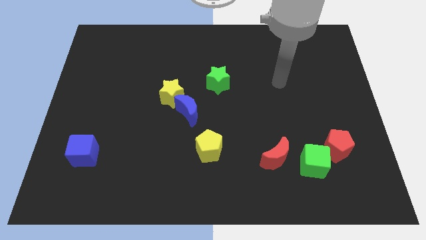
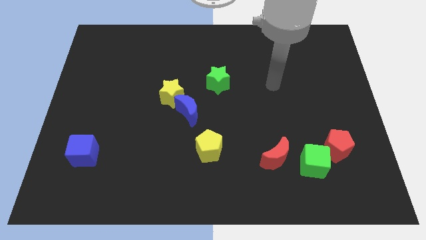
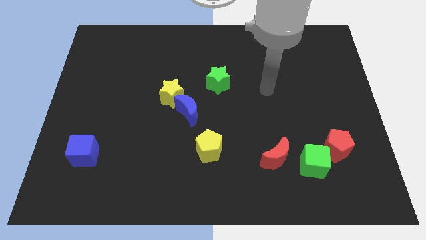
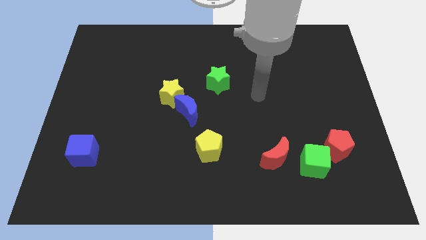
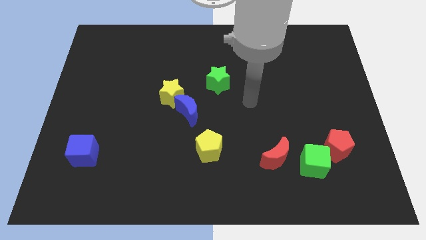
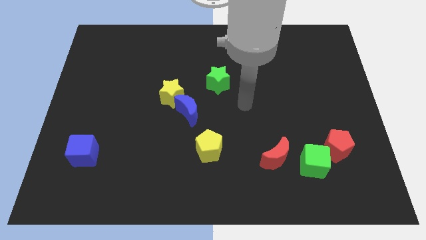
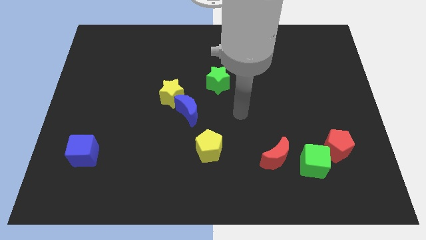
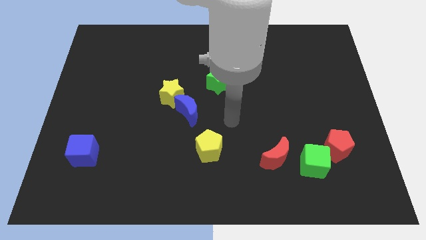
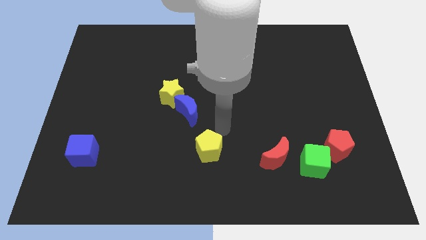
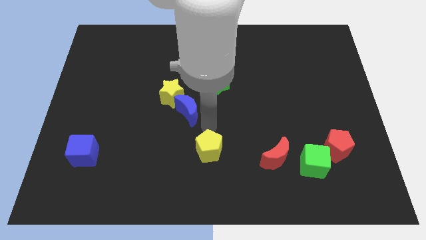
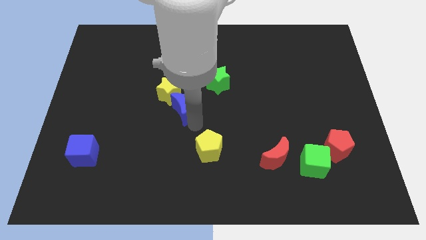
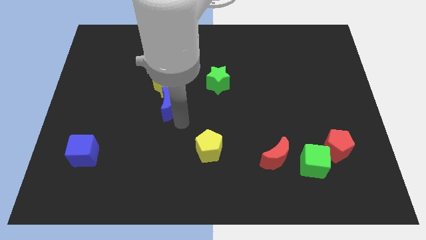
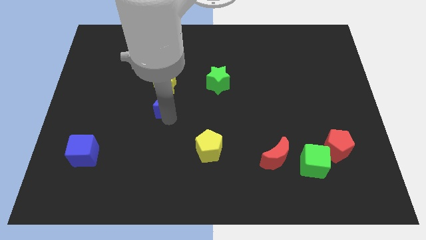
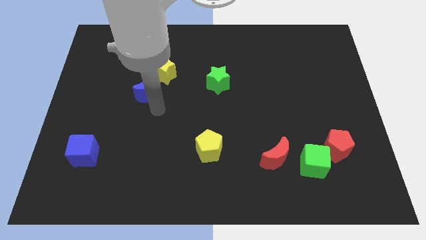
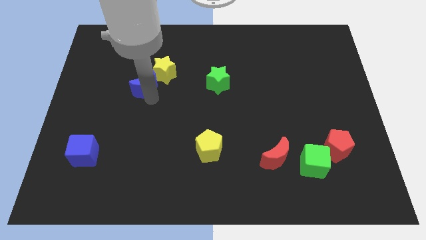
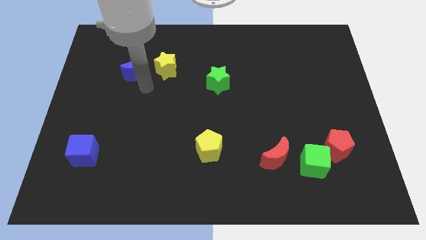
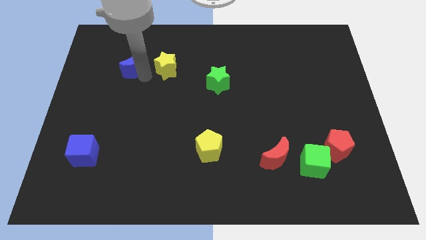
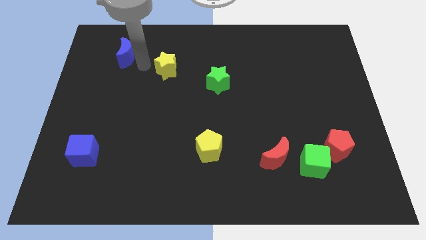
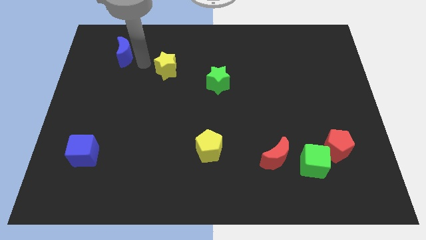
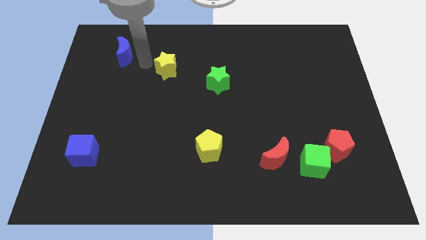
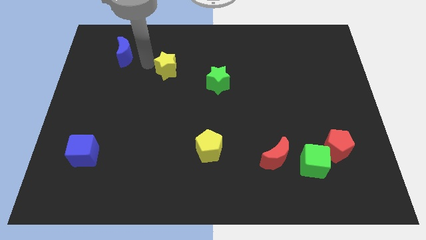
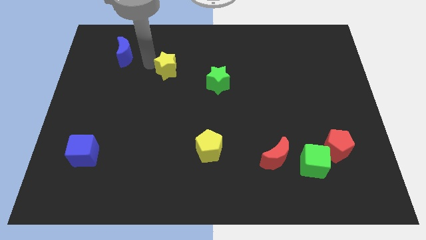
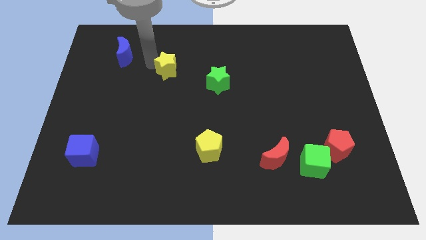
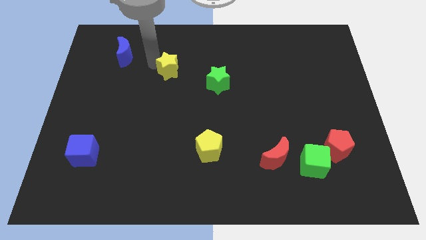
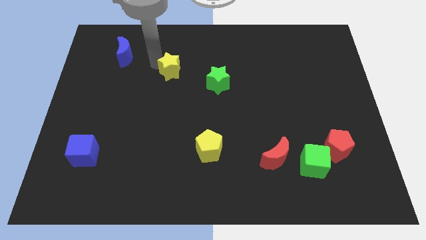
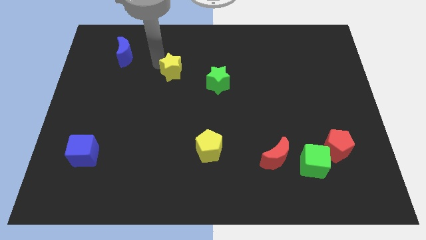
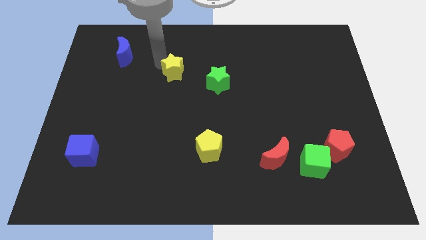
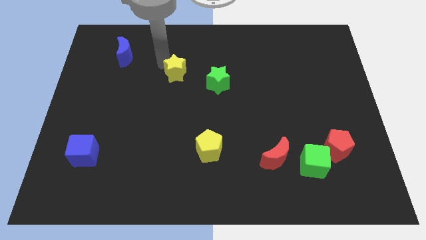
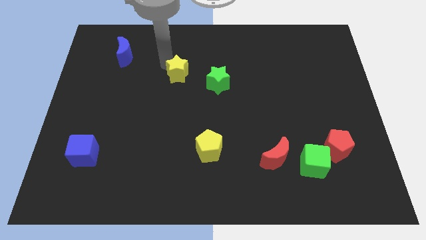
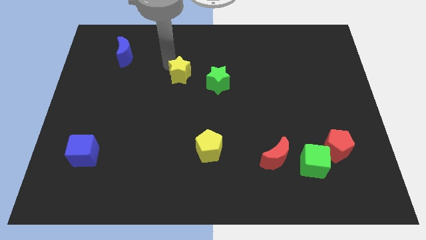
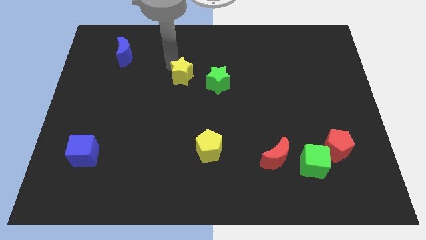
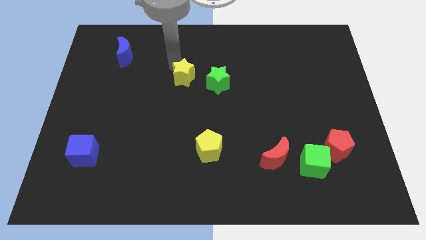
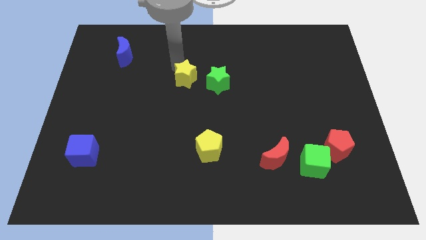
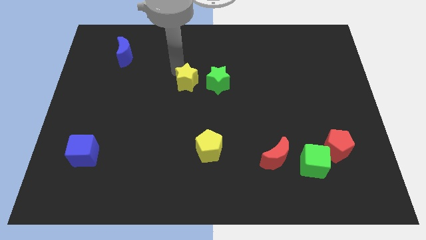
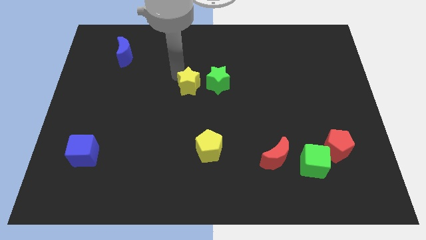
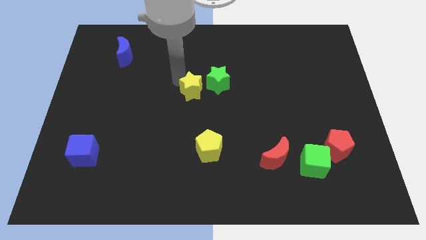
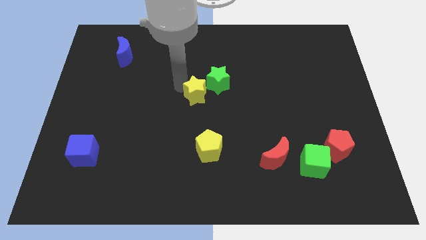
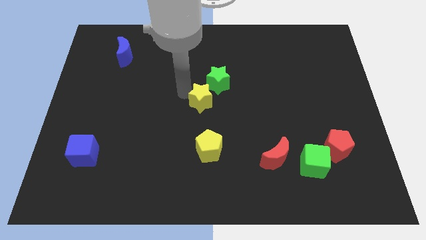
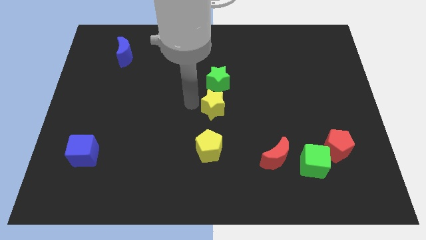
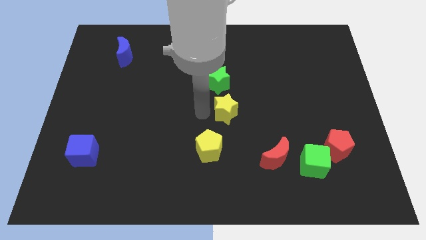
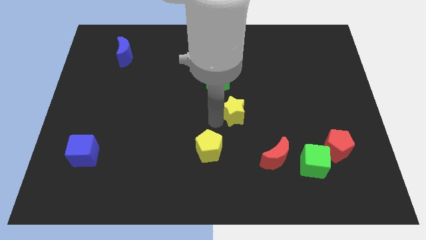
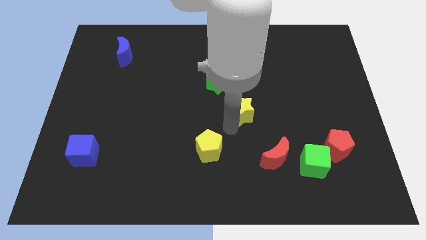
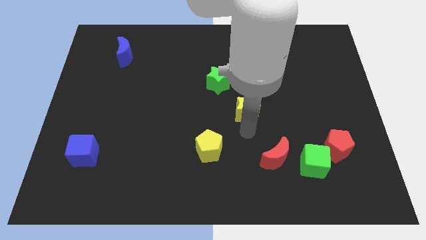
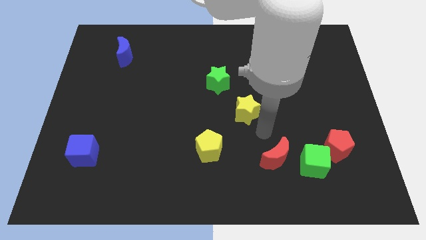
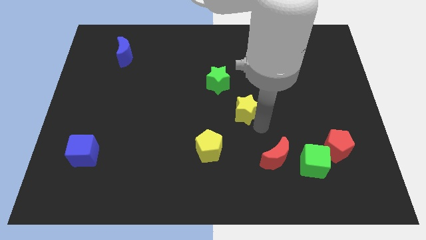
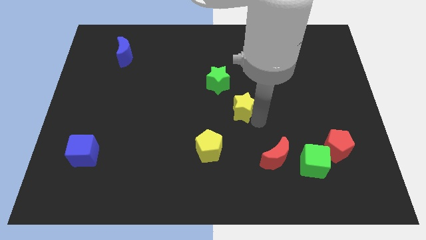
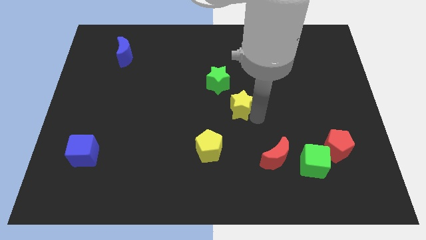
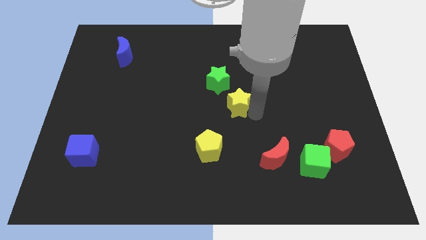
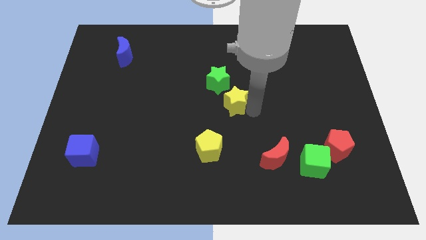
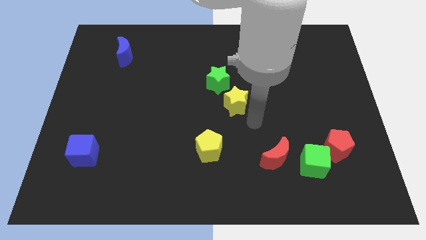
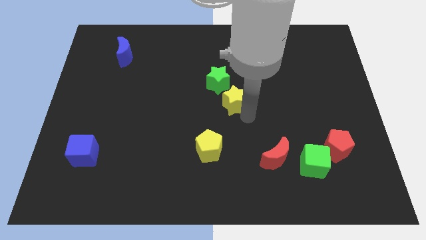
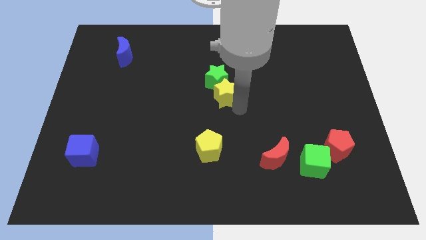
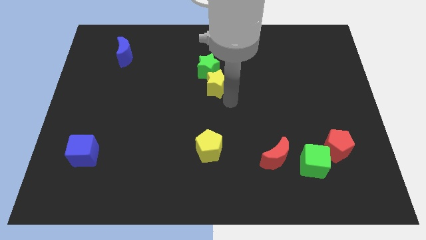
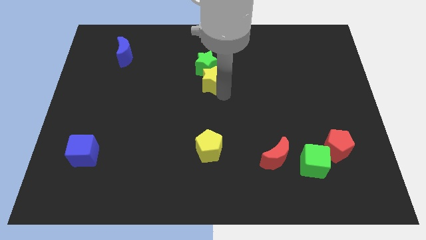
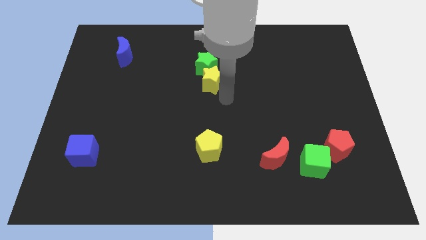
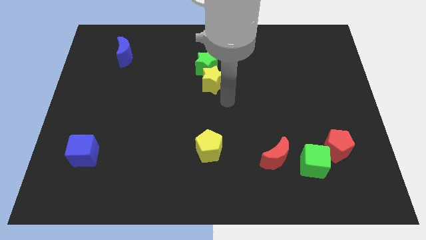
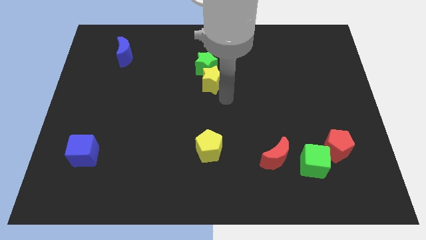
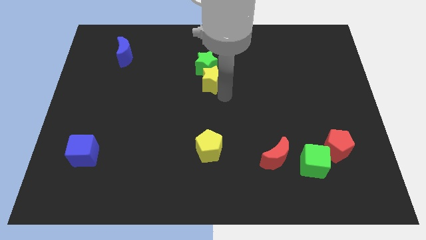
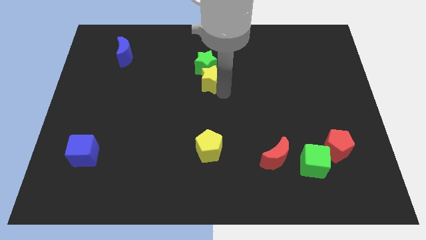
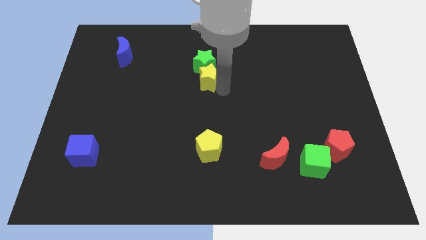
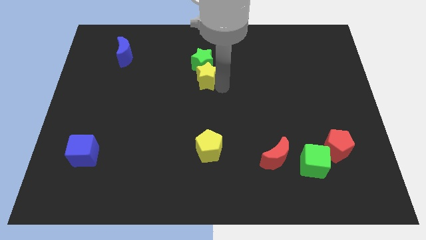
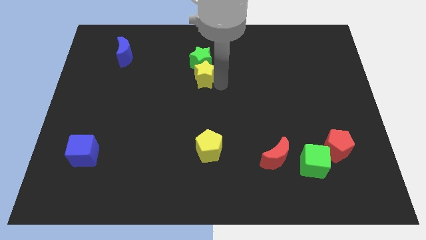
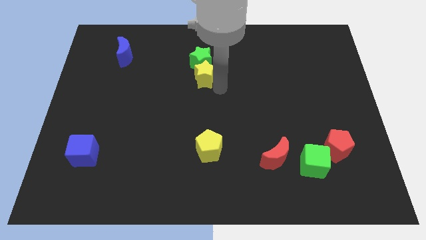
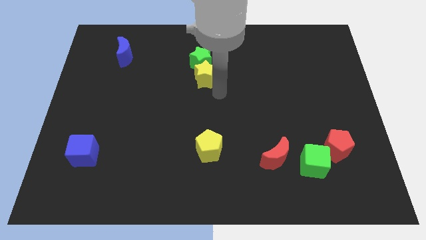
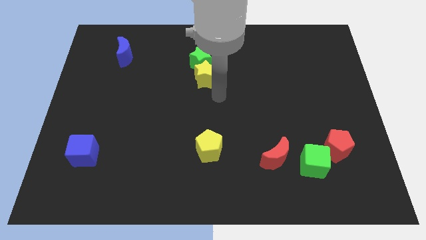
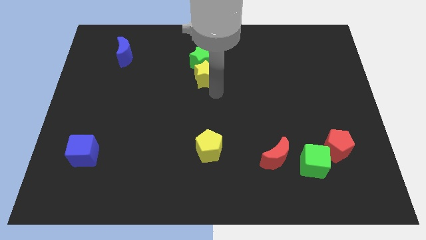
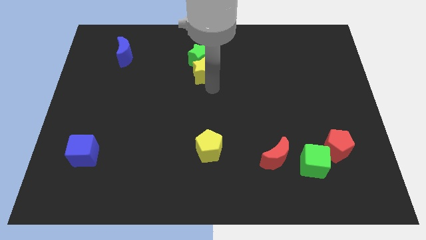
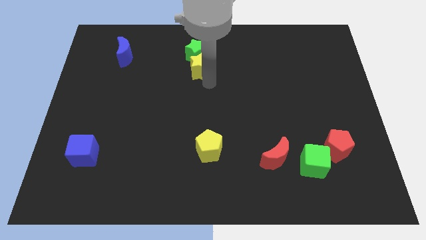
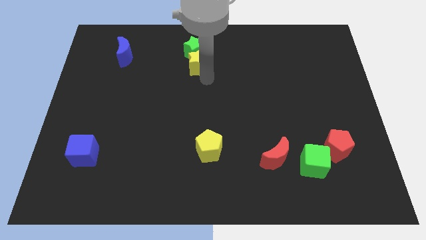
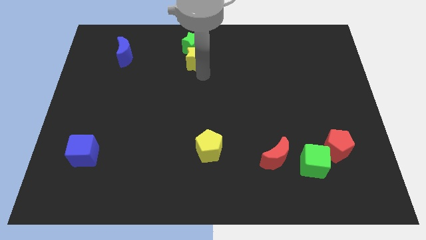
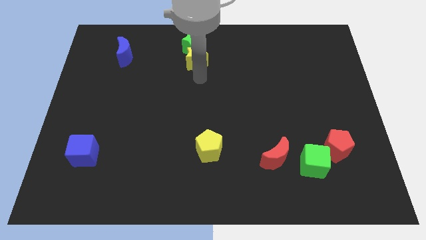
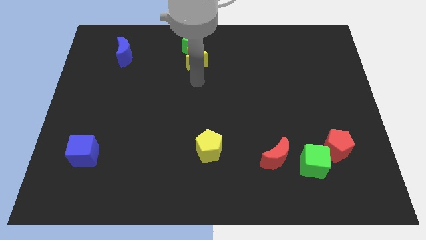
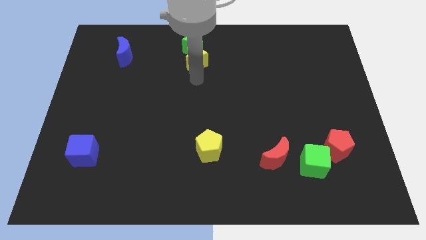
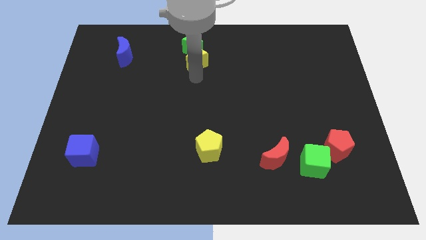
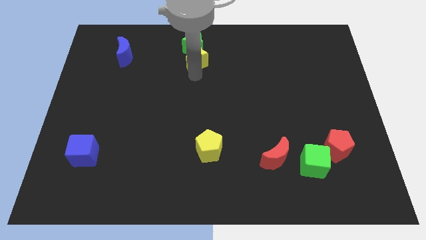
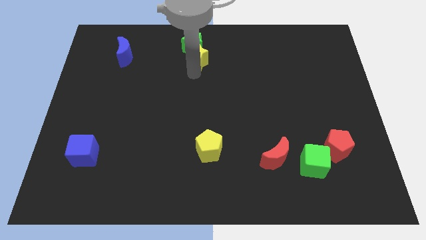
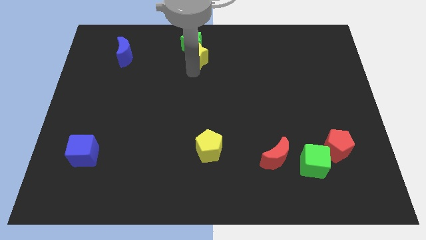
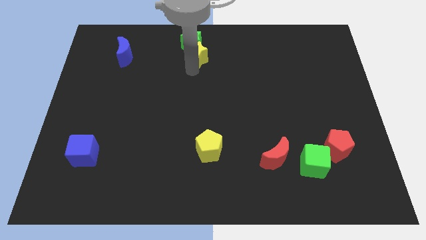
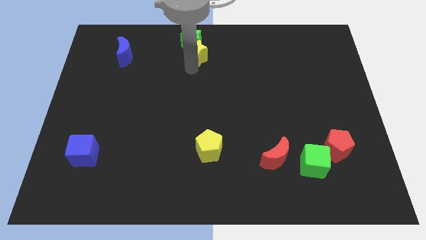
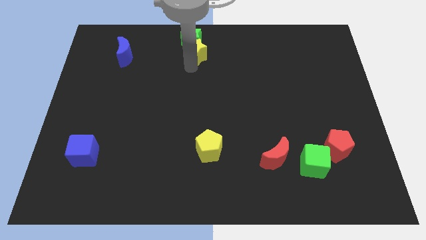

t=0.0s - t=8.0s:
push the yellow star to the towards your base
